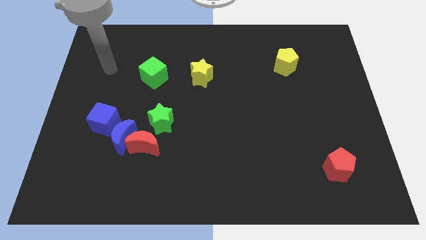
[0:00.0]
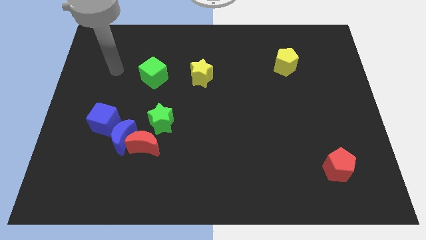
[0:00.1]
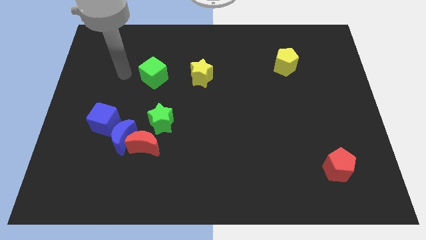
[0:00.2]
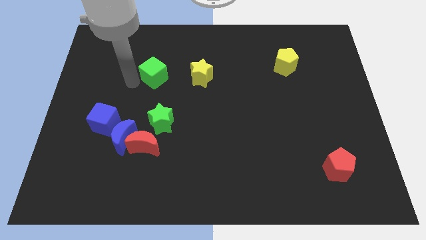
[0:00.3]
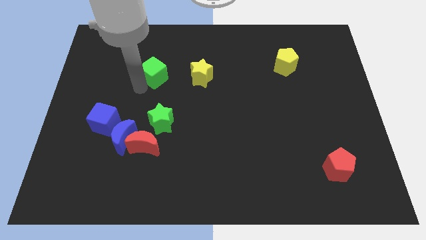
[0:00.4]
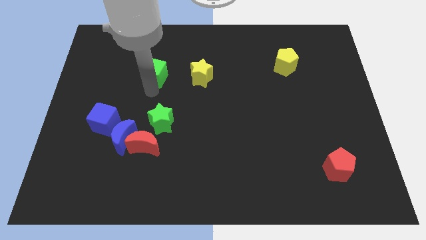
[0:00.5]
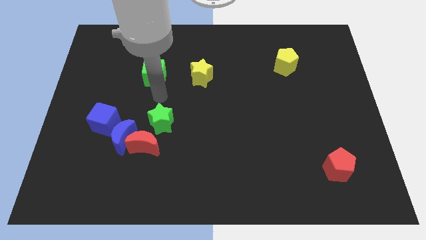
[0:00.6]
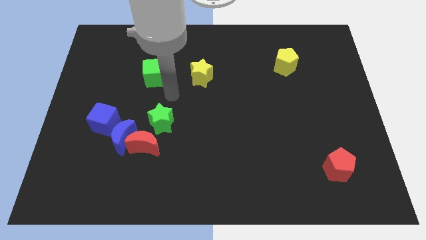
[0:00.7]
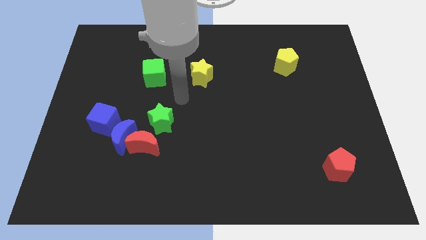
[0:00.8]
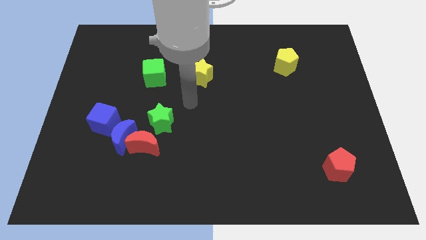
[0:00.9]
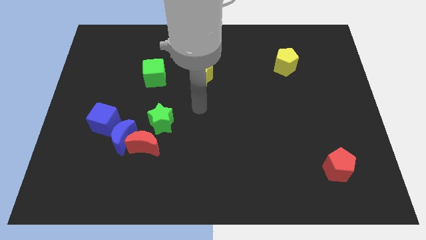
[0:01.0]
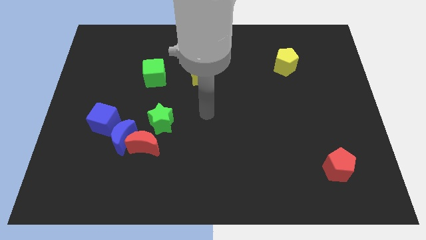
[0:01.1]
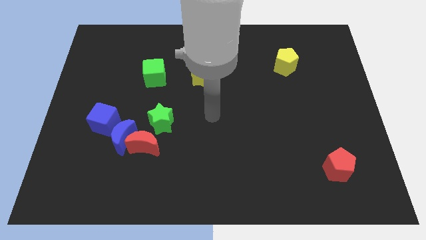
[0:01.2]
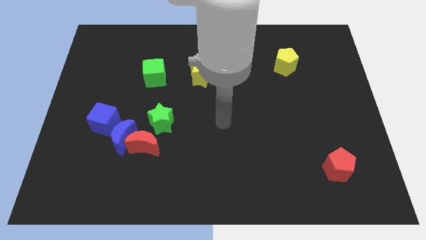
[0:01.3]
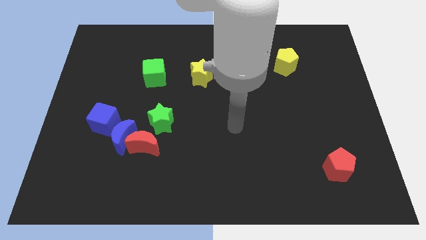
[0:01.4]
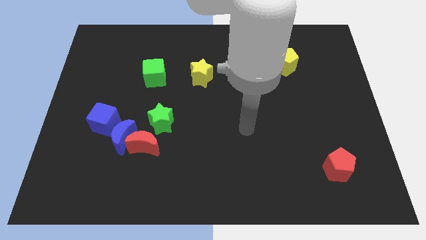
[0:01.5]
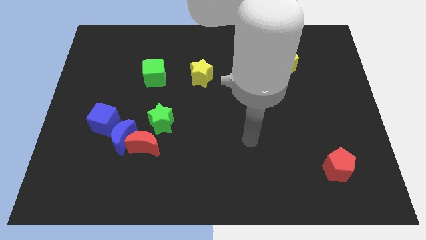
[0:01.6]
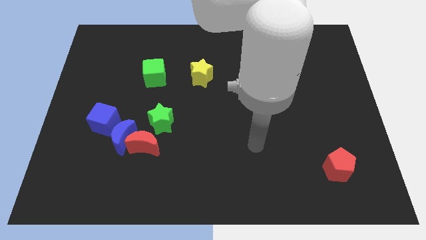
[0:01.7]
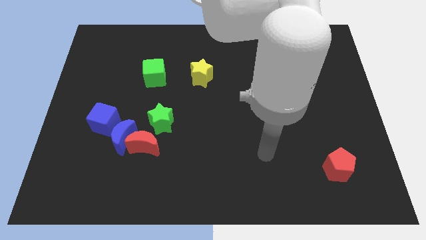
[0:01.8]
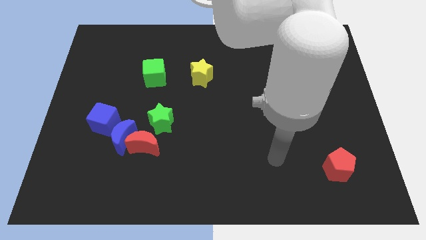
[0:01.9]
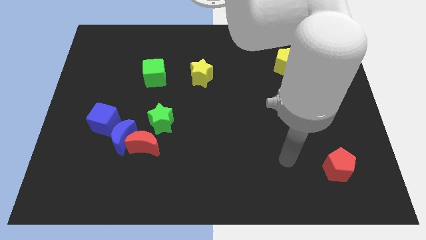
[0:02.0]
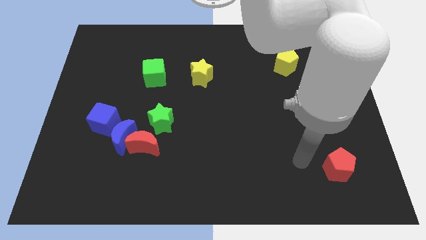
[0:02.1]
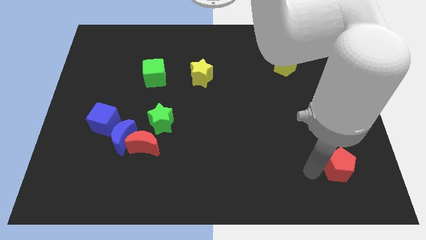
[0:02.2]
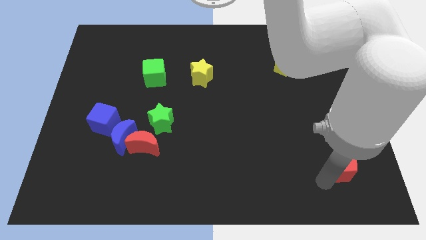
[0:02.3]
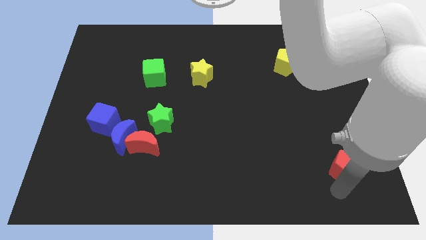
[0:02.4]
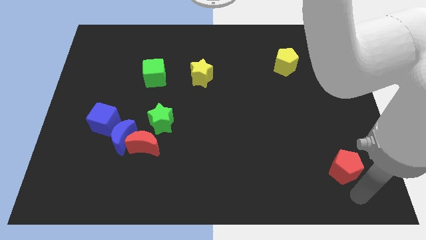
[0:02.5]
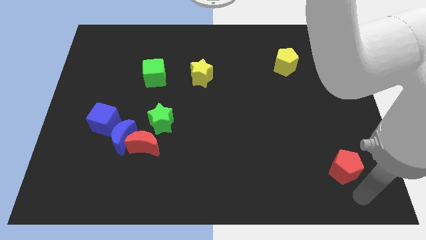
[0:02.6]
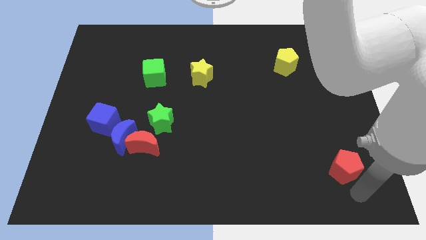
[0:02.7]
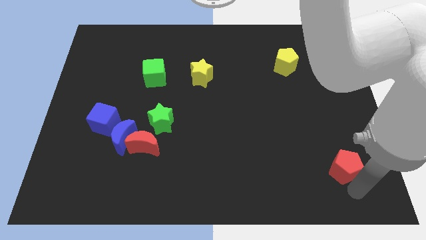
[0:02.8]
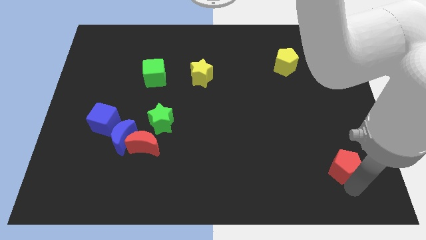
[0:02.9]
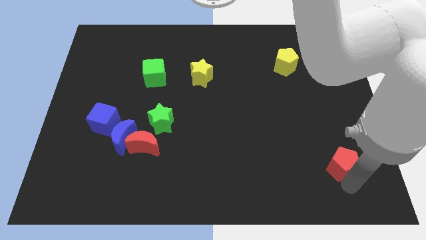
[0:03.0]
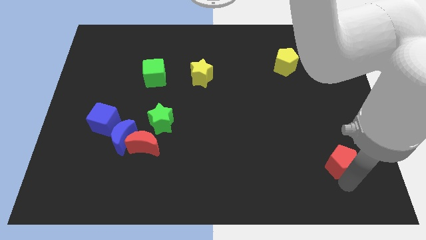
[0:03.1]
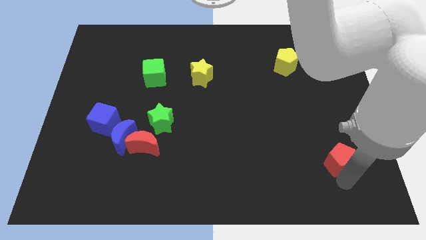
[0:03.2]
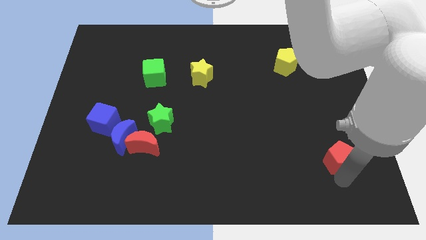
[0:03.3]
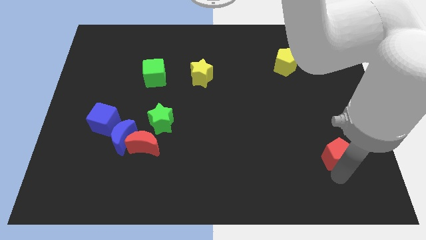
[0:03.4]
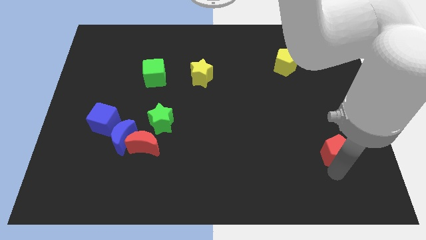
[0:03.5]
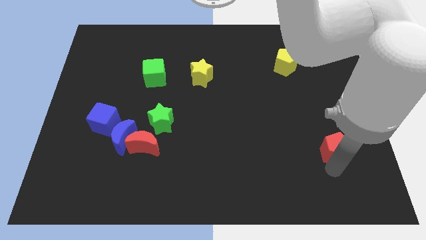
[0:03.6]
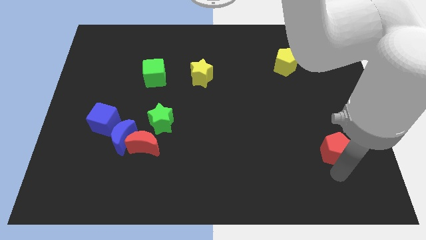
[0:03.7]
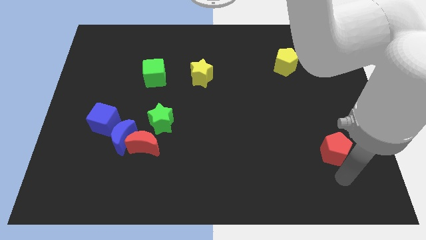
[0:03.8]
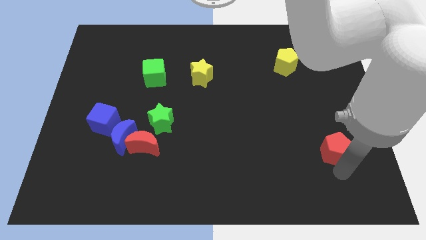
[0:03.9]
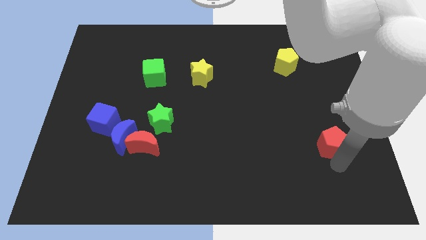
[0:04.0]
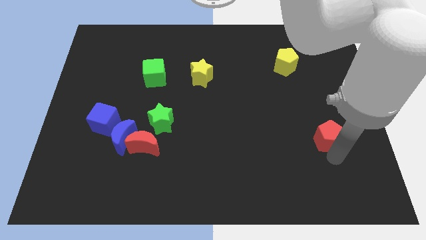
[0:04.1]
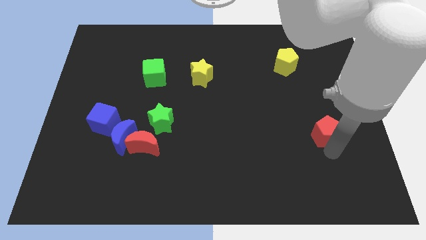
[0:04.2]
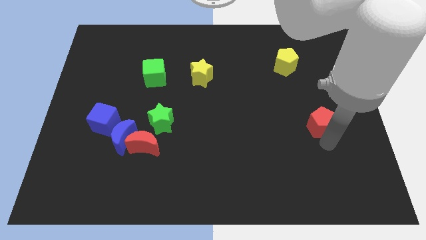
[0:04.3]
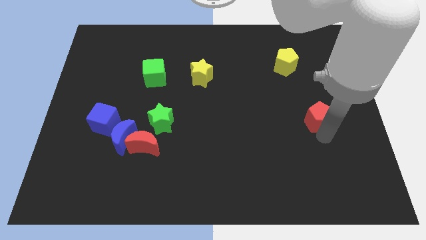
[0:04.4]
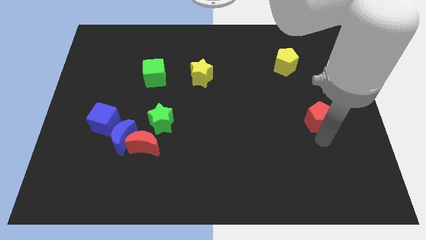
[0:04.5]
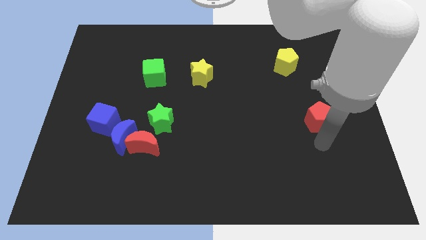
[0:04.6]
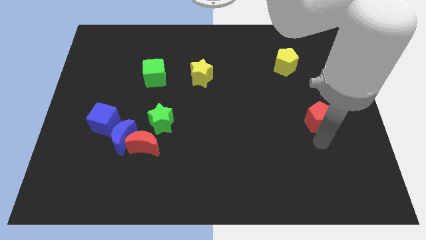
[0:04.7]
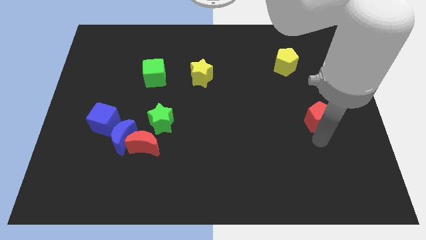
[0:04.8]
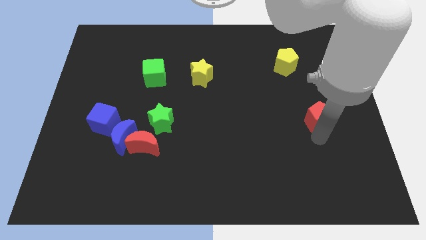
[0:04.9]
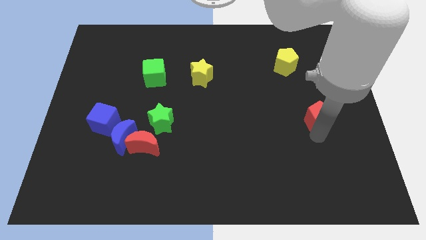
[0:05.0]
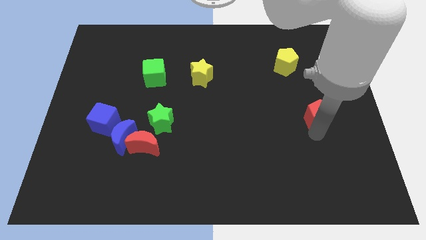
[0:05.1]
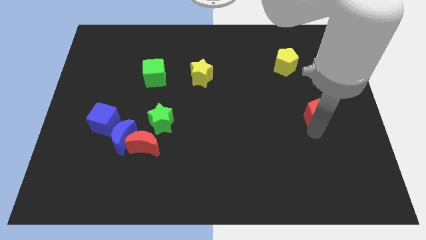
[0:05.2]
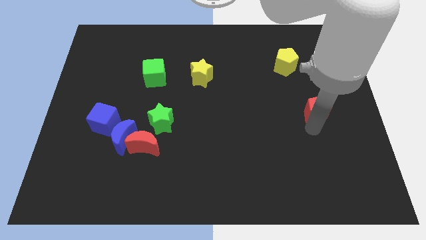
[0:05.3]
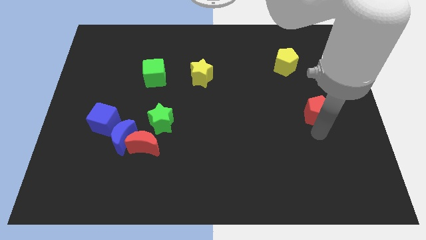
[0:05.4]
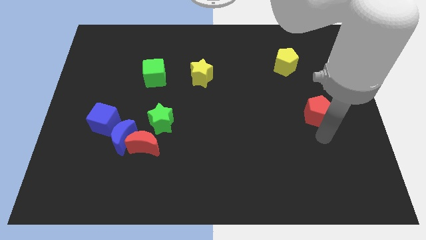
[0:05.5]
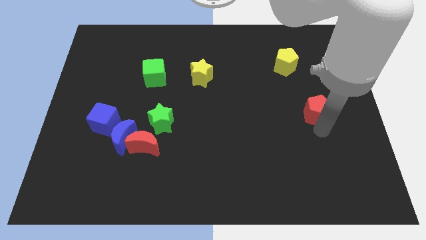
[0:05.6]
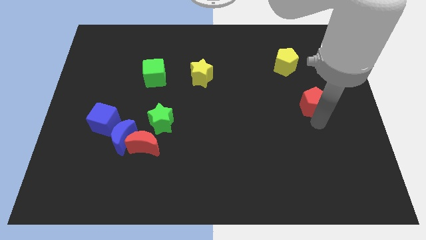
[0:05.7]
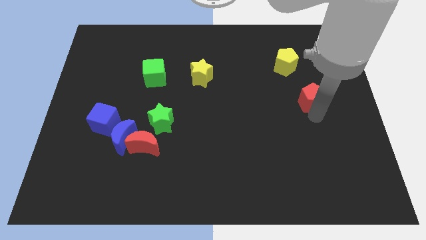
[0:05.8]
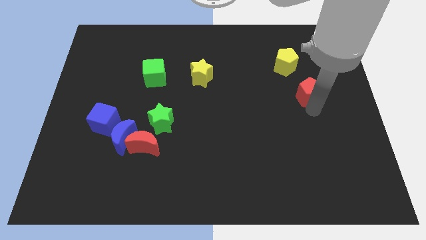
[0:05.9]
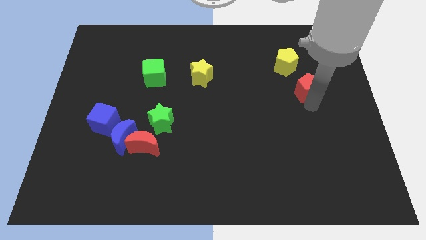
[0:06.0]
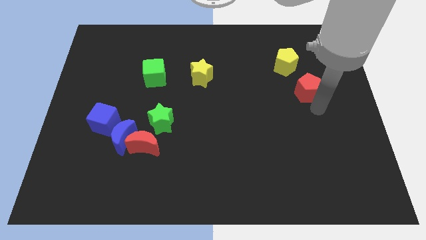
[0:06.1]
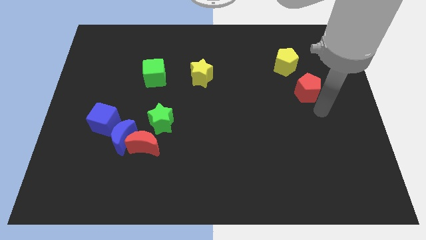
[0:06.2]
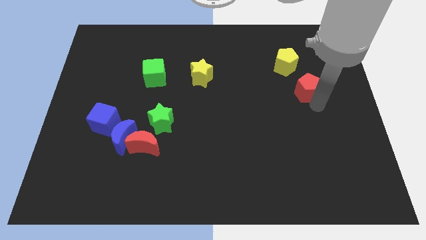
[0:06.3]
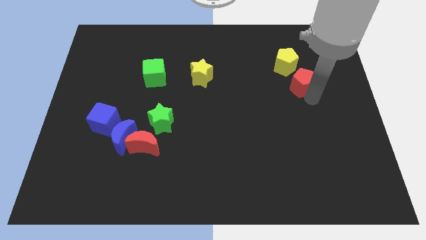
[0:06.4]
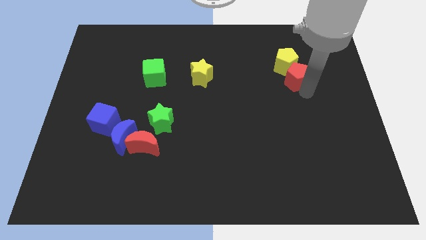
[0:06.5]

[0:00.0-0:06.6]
put the red pentagon towards the yellow pentagon
